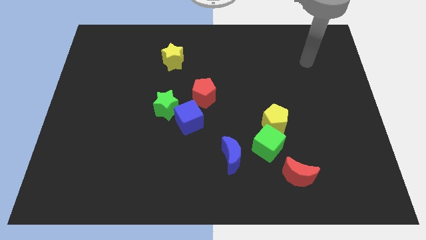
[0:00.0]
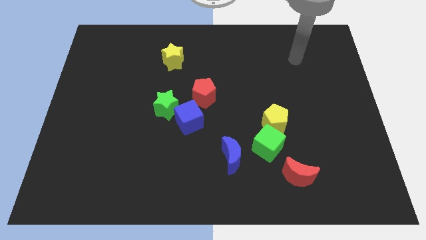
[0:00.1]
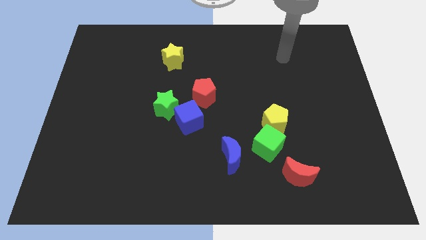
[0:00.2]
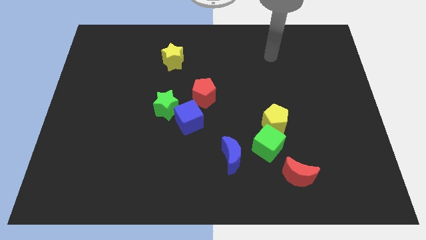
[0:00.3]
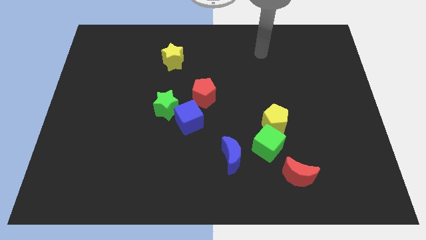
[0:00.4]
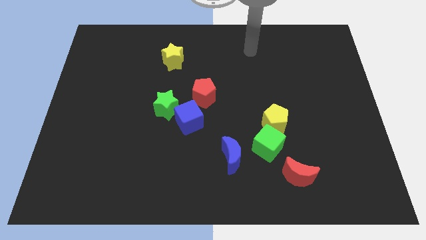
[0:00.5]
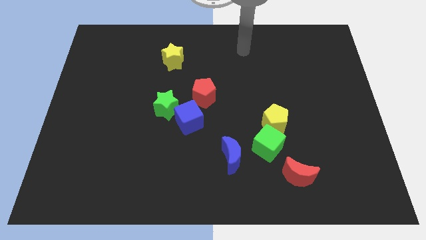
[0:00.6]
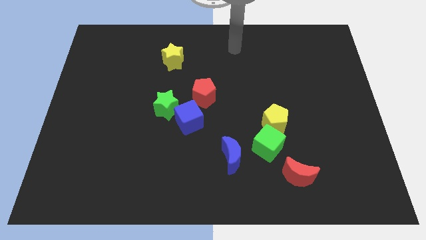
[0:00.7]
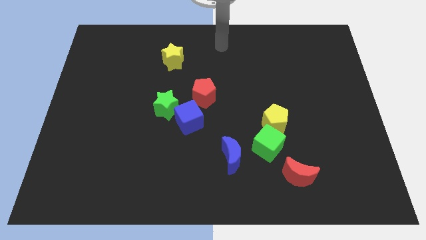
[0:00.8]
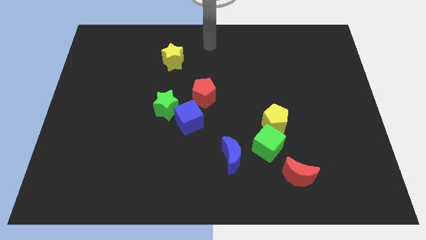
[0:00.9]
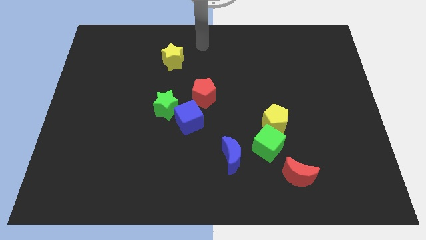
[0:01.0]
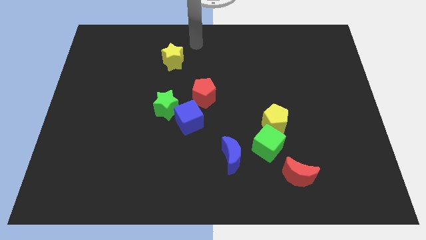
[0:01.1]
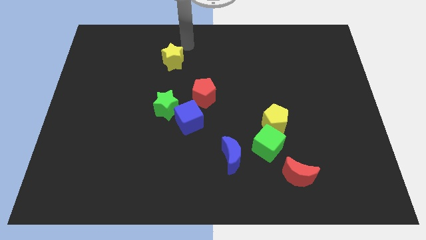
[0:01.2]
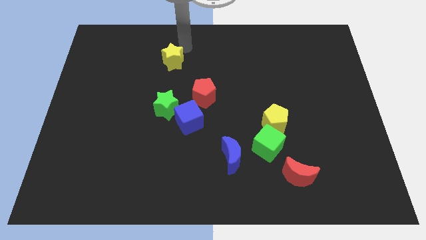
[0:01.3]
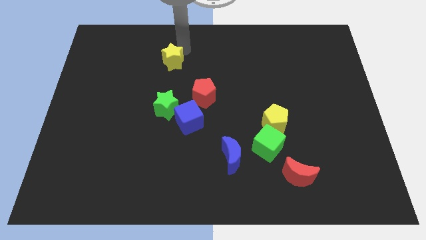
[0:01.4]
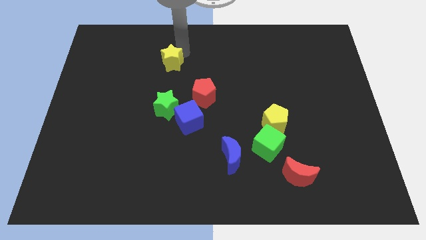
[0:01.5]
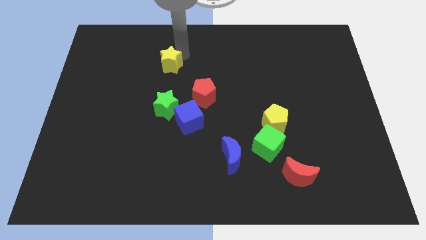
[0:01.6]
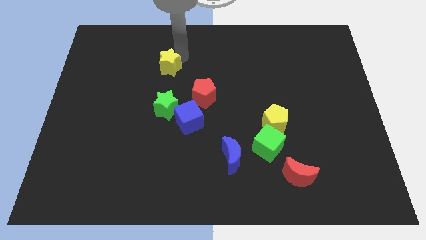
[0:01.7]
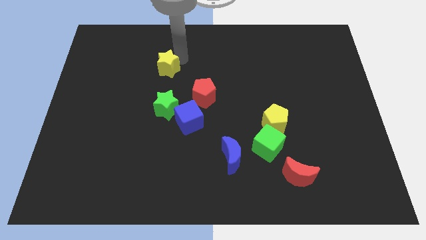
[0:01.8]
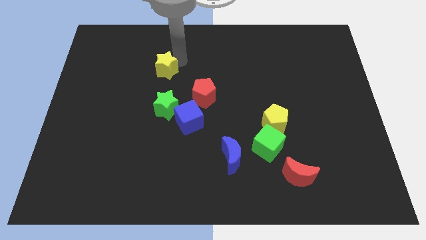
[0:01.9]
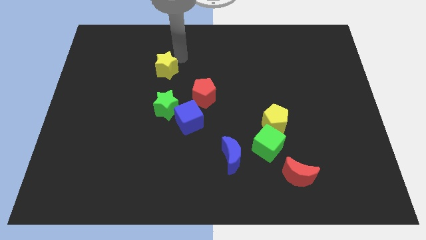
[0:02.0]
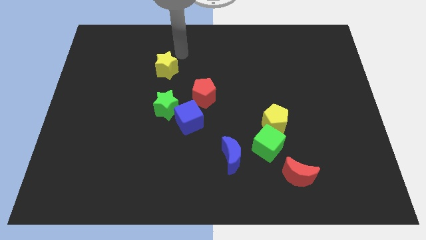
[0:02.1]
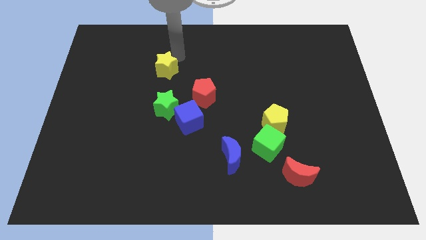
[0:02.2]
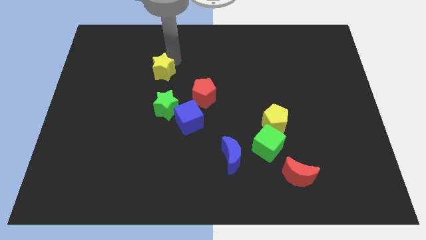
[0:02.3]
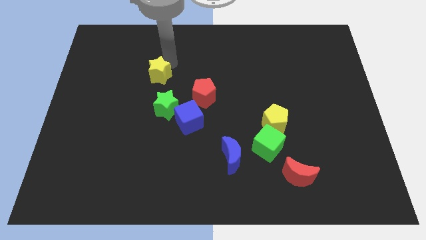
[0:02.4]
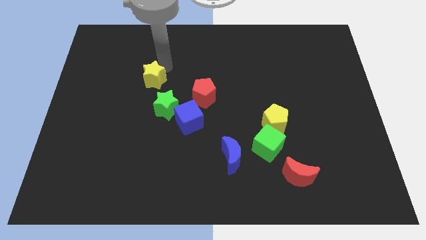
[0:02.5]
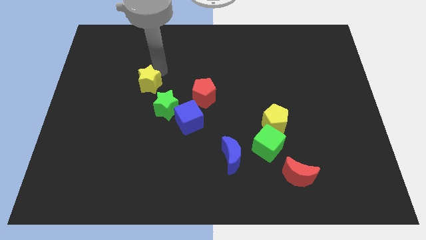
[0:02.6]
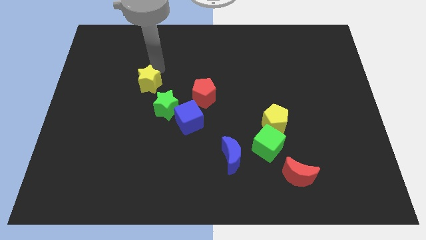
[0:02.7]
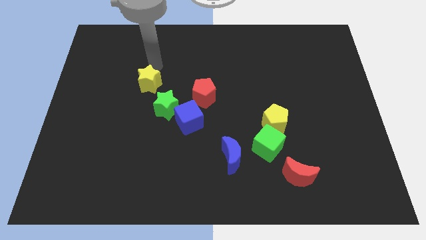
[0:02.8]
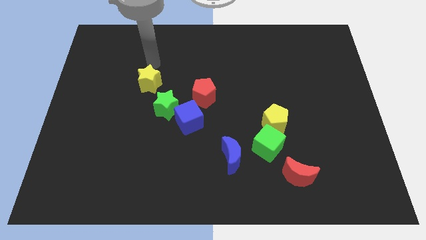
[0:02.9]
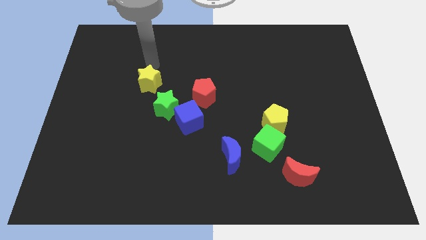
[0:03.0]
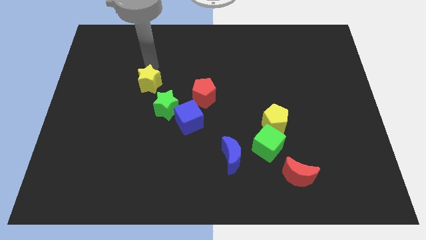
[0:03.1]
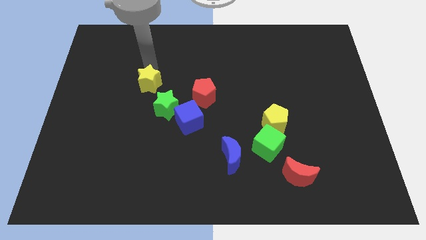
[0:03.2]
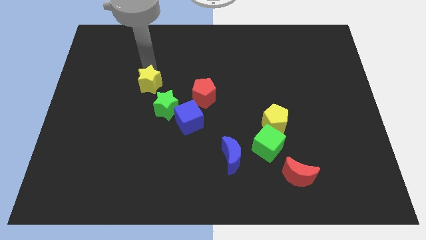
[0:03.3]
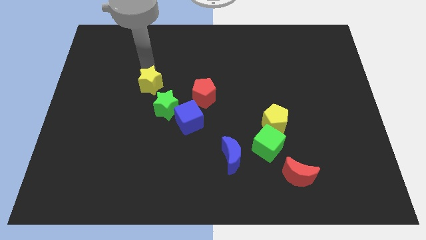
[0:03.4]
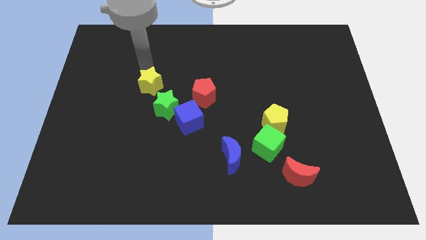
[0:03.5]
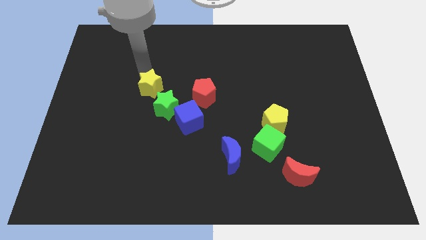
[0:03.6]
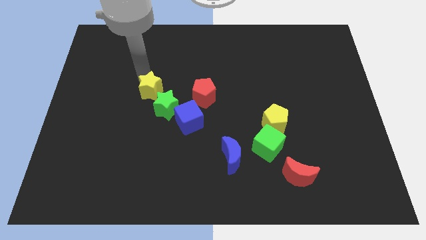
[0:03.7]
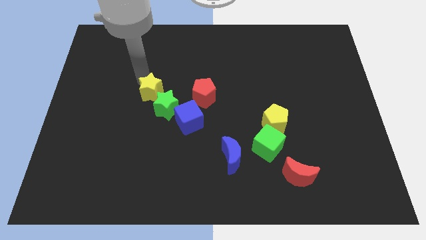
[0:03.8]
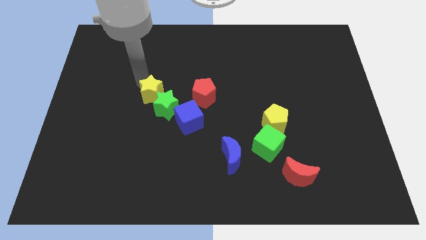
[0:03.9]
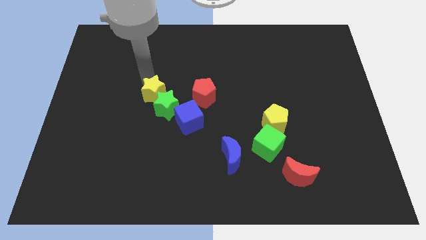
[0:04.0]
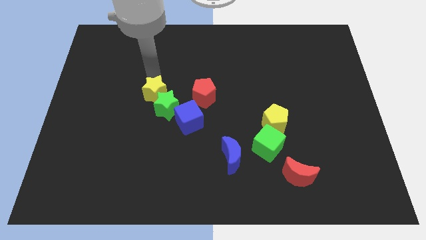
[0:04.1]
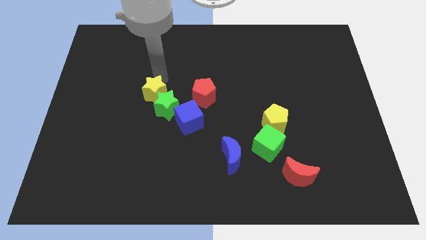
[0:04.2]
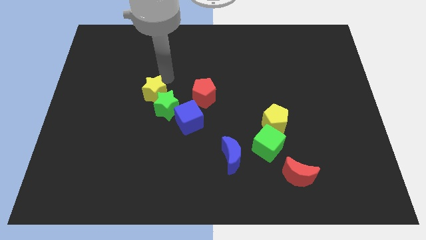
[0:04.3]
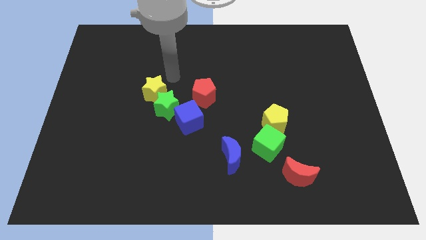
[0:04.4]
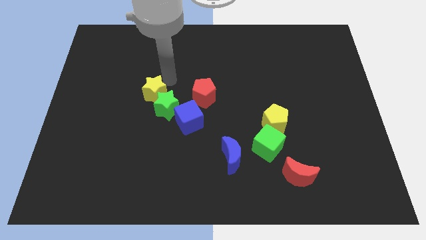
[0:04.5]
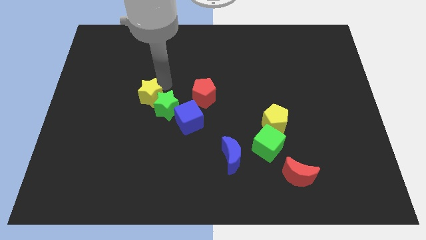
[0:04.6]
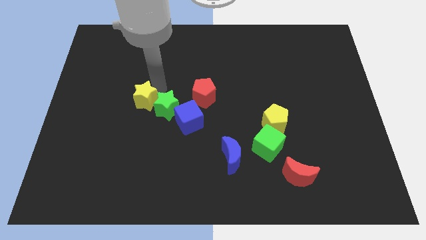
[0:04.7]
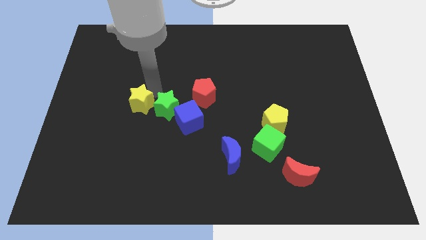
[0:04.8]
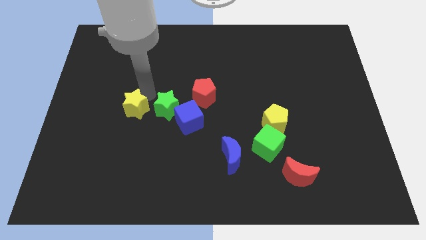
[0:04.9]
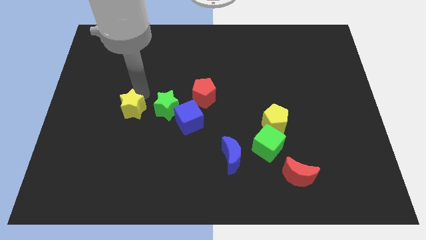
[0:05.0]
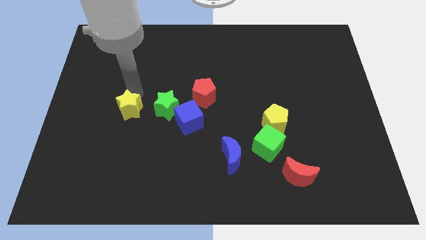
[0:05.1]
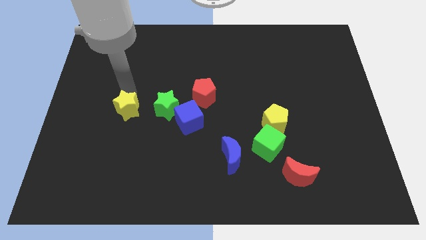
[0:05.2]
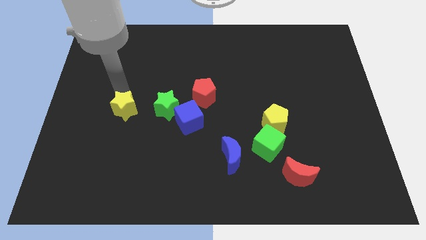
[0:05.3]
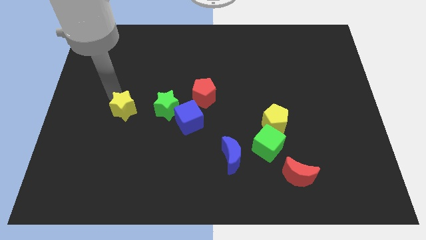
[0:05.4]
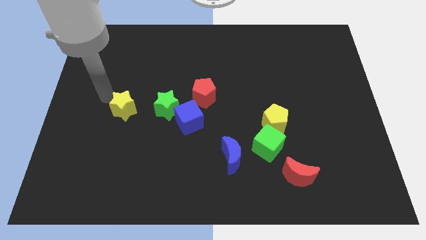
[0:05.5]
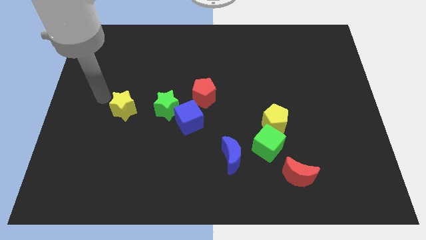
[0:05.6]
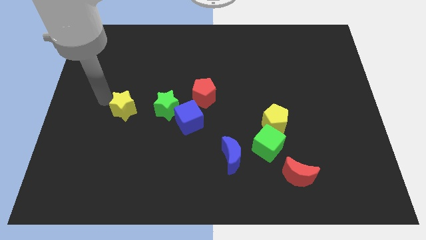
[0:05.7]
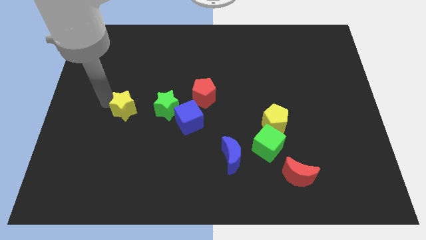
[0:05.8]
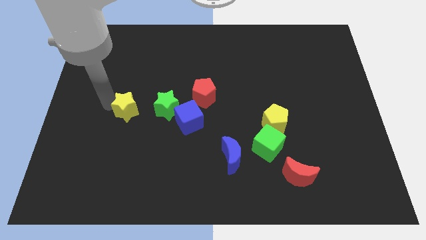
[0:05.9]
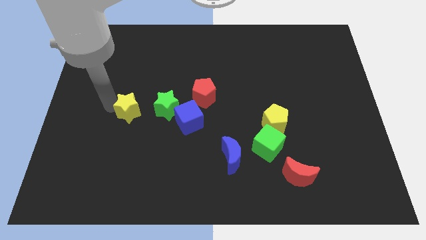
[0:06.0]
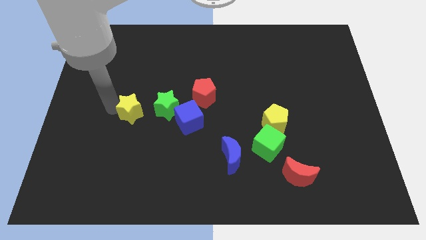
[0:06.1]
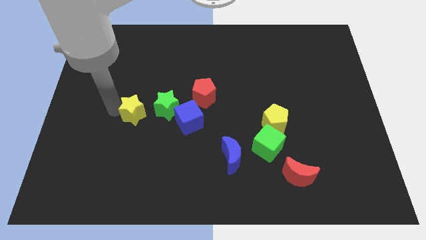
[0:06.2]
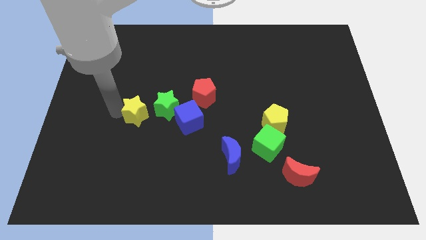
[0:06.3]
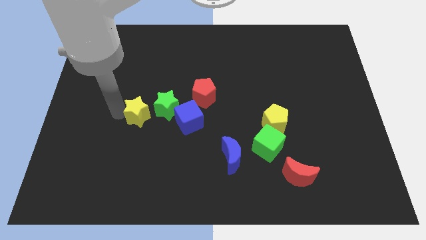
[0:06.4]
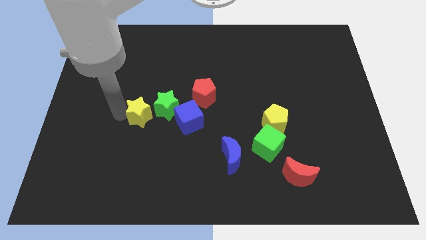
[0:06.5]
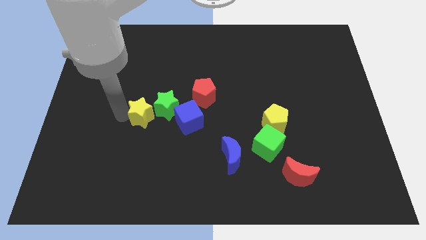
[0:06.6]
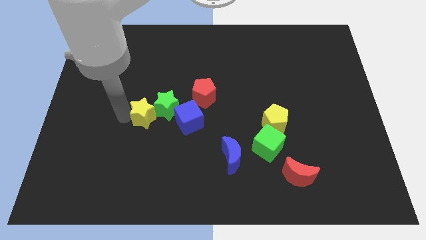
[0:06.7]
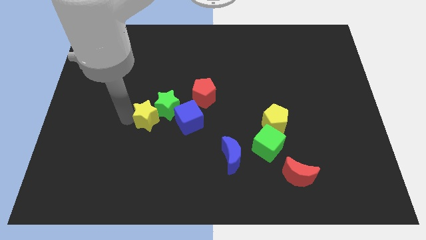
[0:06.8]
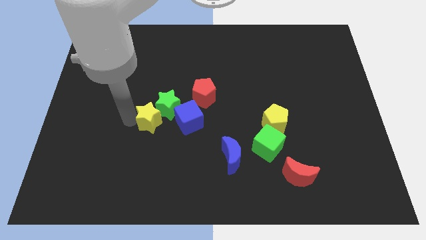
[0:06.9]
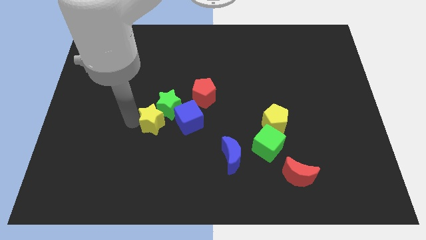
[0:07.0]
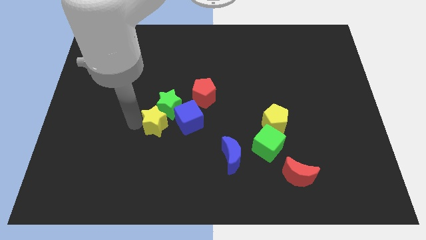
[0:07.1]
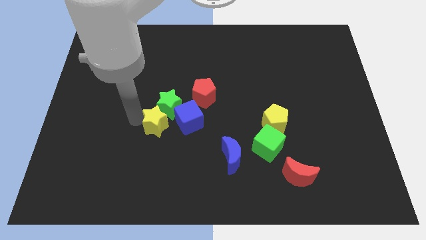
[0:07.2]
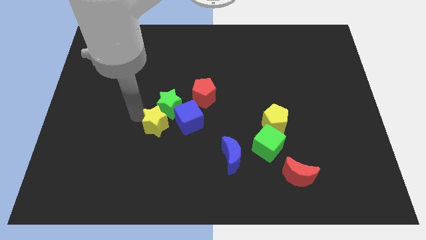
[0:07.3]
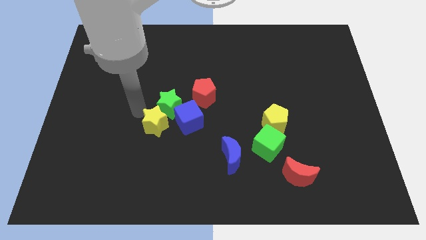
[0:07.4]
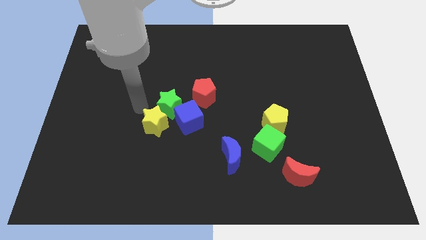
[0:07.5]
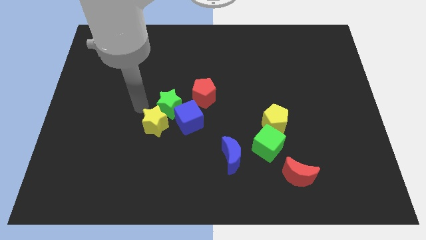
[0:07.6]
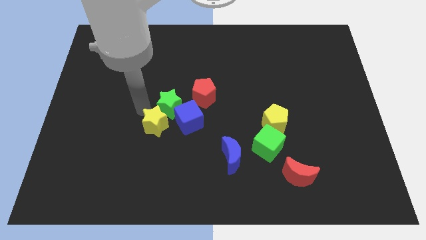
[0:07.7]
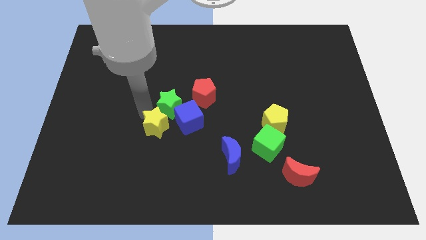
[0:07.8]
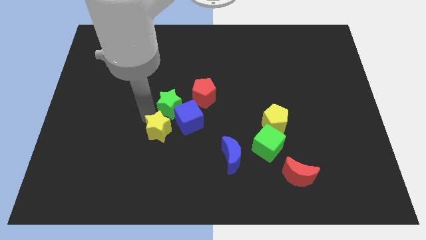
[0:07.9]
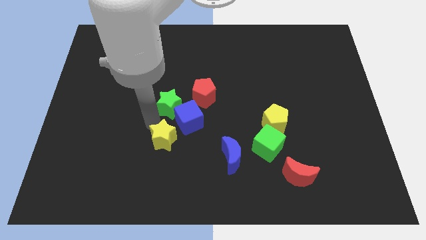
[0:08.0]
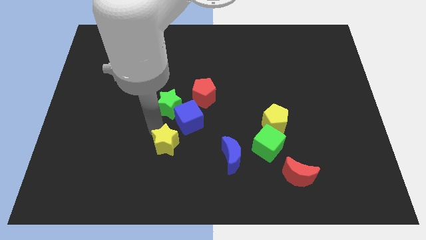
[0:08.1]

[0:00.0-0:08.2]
put the yellow star left of the blue moon
